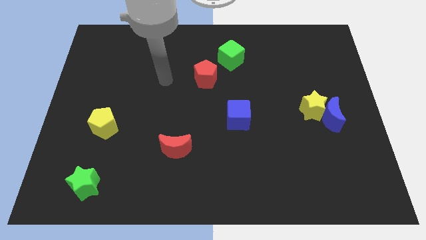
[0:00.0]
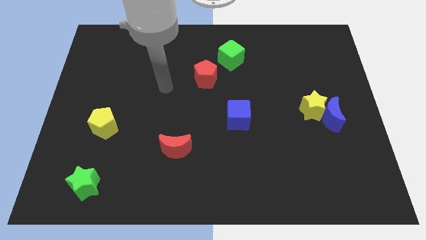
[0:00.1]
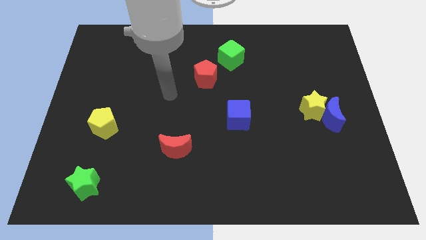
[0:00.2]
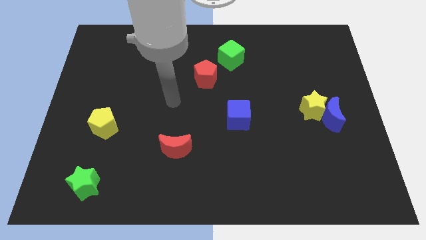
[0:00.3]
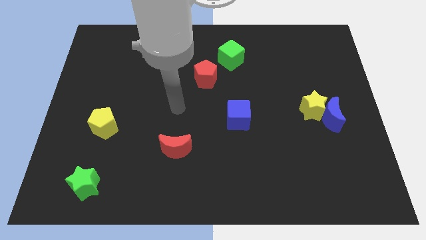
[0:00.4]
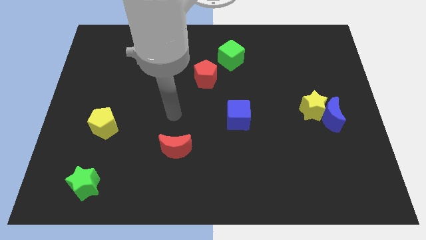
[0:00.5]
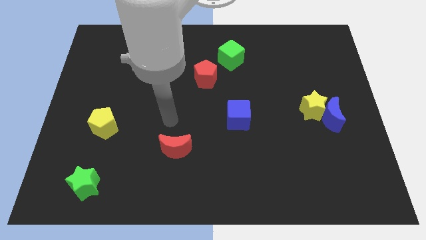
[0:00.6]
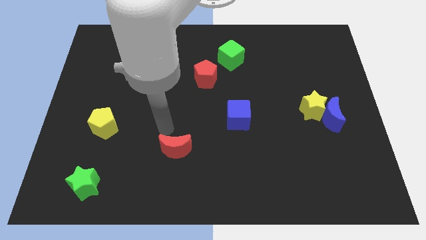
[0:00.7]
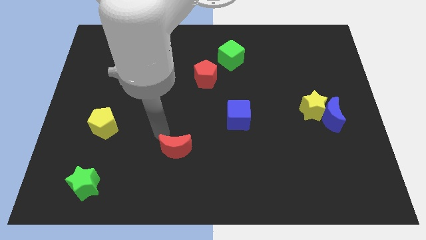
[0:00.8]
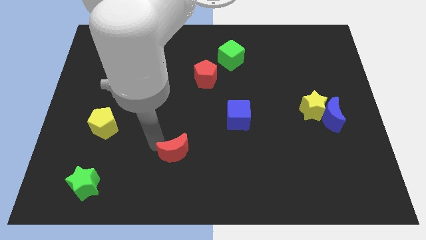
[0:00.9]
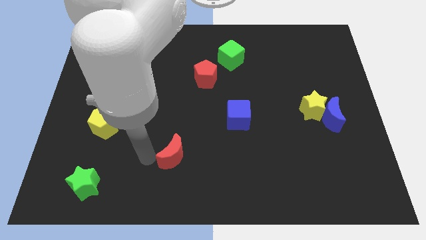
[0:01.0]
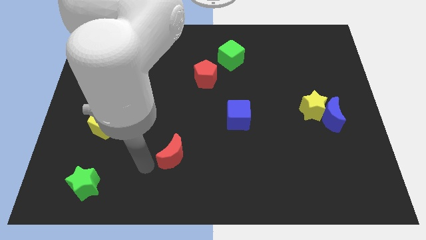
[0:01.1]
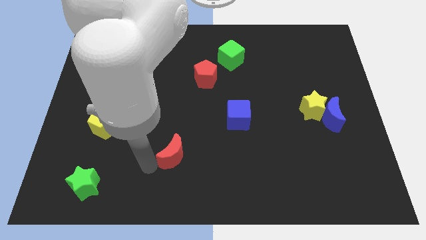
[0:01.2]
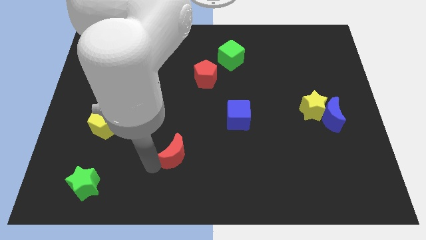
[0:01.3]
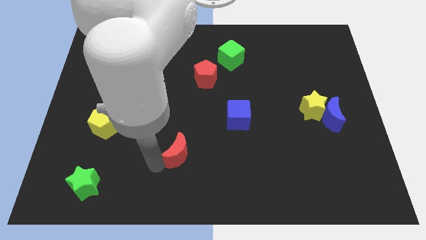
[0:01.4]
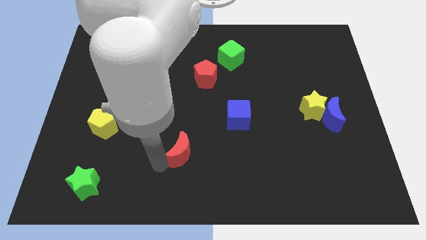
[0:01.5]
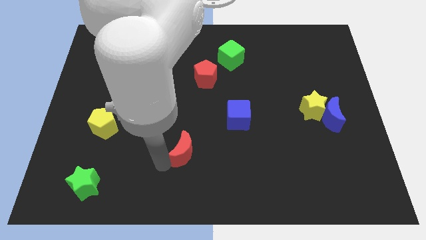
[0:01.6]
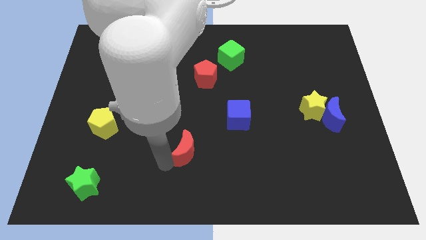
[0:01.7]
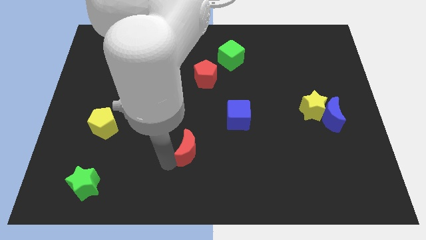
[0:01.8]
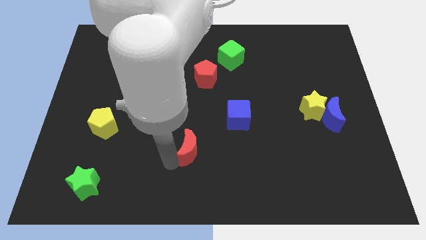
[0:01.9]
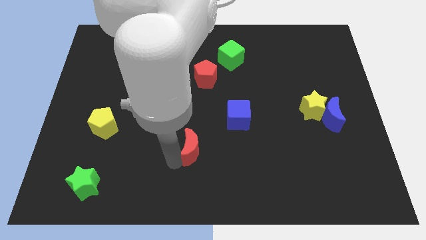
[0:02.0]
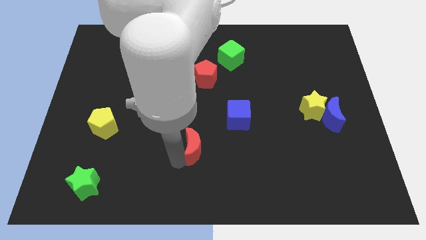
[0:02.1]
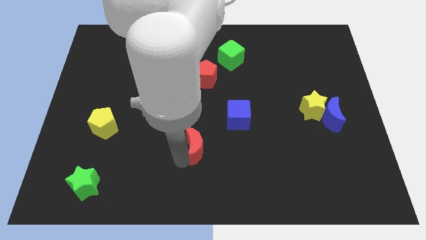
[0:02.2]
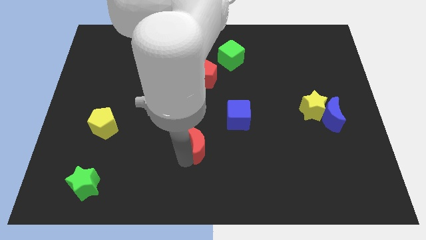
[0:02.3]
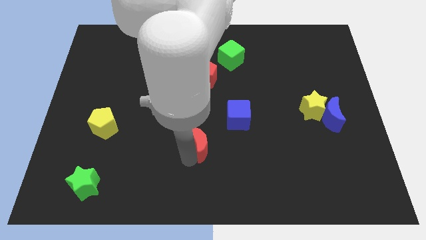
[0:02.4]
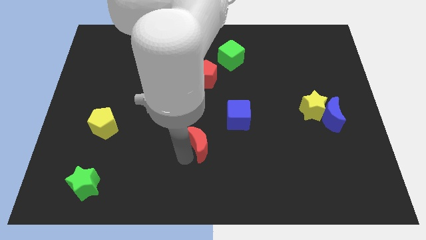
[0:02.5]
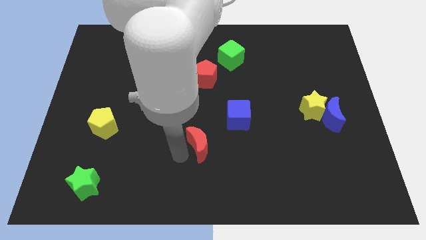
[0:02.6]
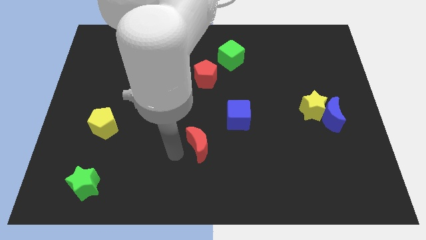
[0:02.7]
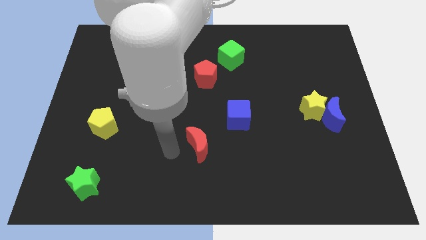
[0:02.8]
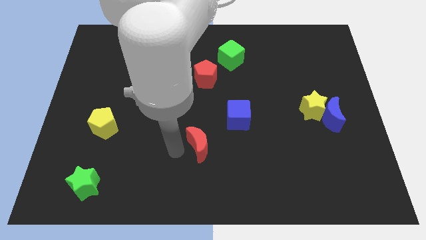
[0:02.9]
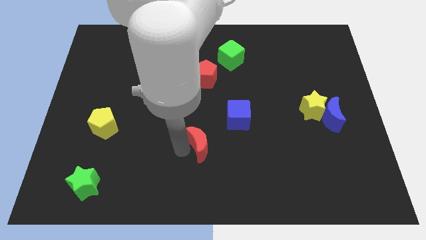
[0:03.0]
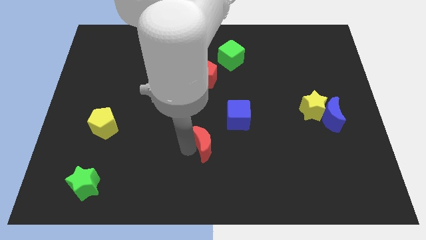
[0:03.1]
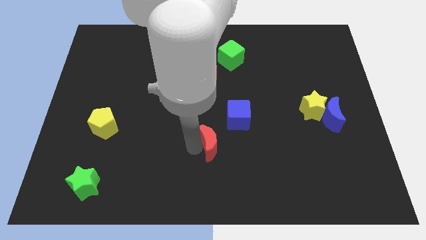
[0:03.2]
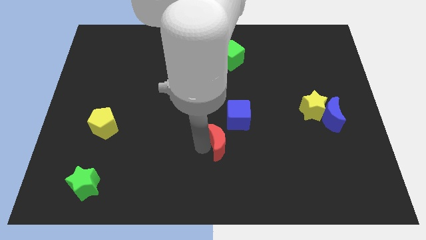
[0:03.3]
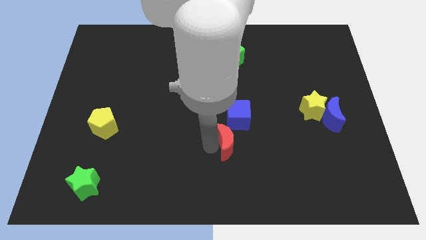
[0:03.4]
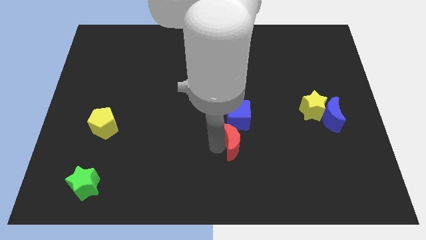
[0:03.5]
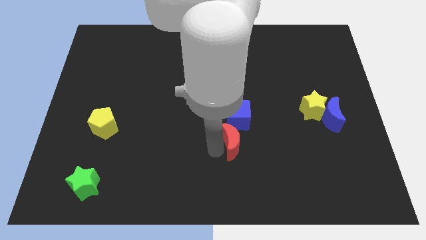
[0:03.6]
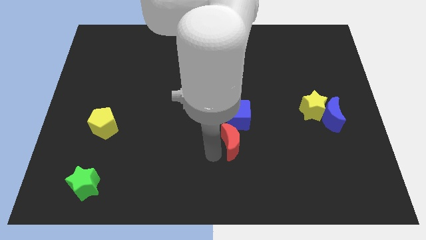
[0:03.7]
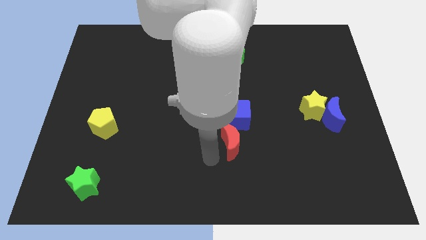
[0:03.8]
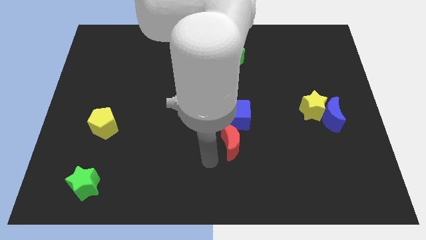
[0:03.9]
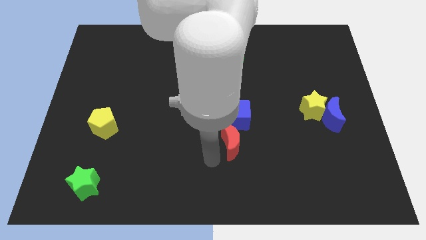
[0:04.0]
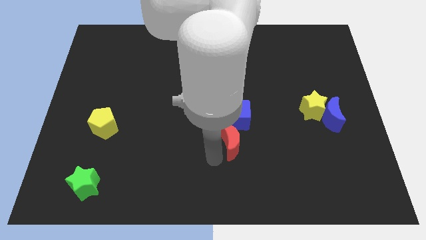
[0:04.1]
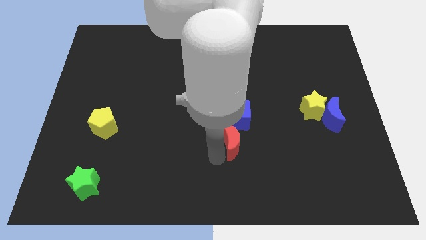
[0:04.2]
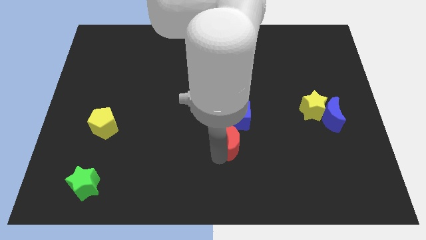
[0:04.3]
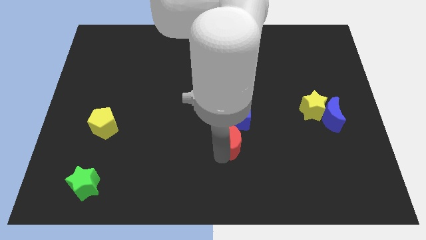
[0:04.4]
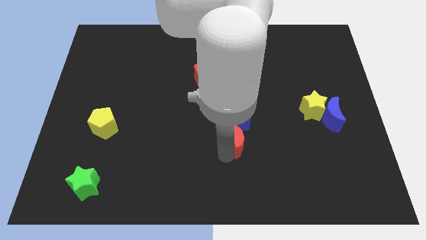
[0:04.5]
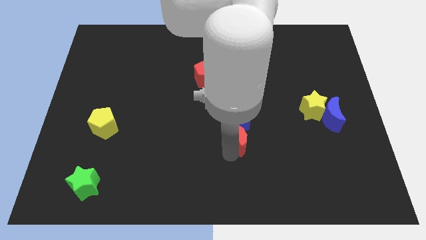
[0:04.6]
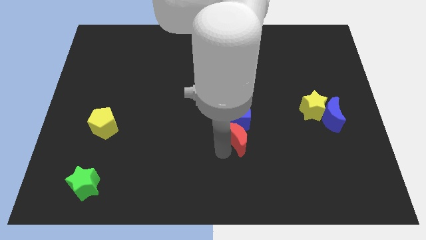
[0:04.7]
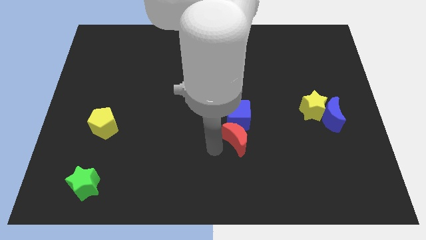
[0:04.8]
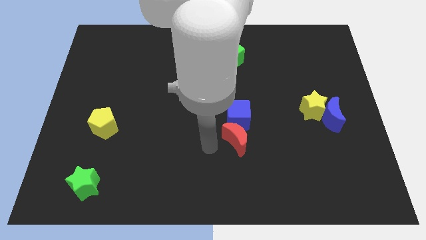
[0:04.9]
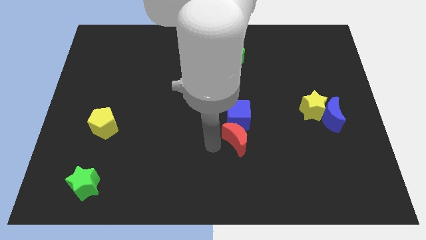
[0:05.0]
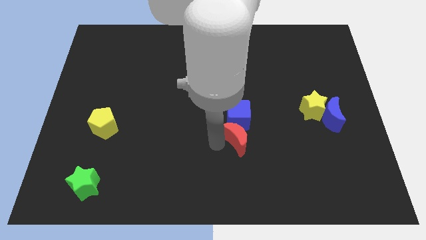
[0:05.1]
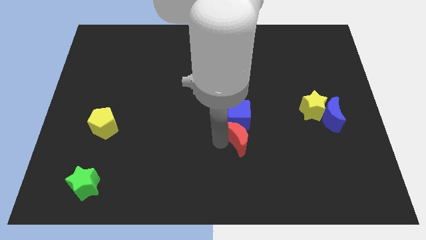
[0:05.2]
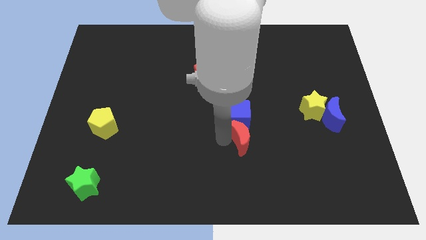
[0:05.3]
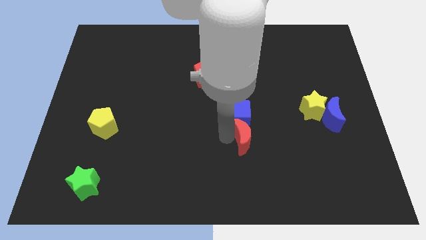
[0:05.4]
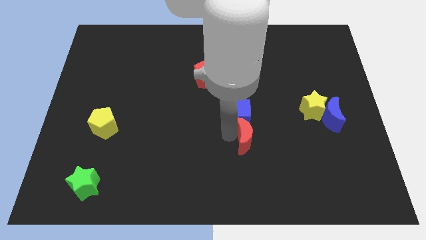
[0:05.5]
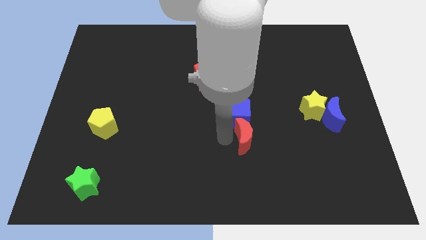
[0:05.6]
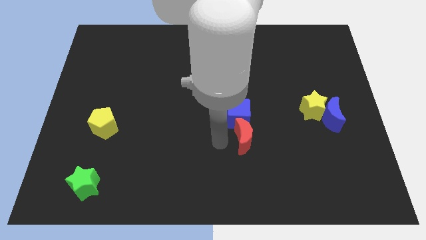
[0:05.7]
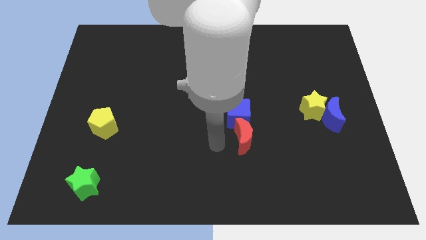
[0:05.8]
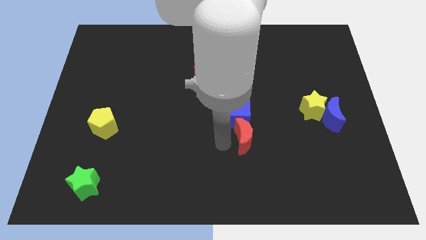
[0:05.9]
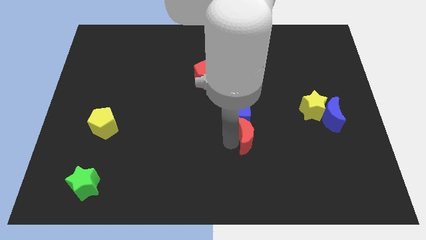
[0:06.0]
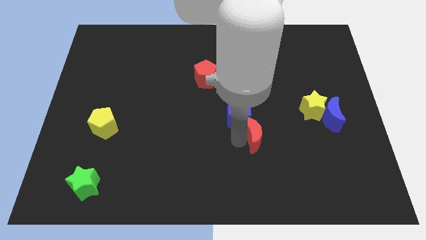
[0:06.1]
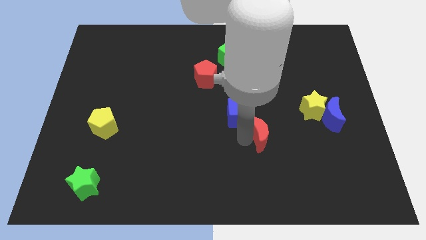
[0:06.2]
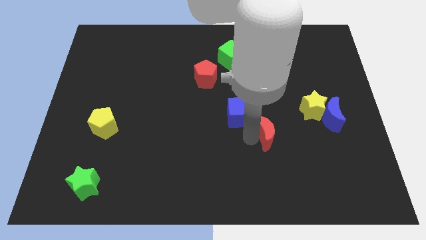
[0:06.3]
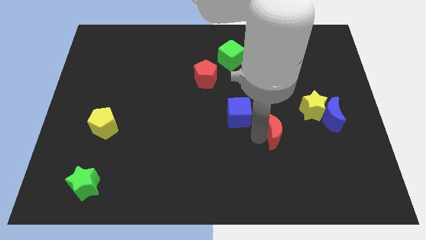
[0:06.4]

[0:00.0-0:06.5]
push the red moon diagonally down and to the left of the yellow star

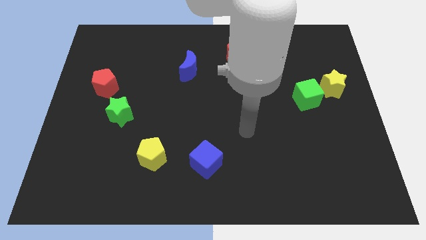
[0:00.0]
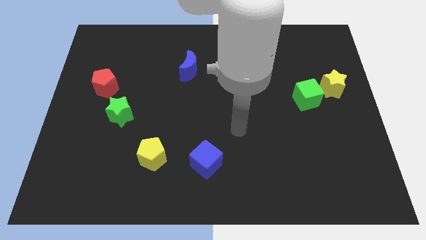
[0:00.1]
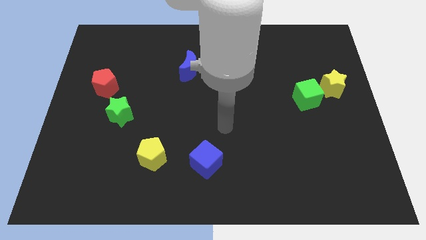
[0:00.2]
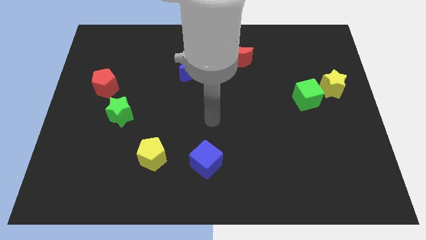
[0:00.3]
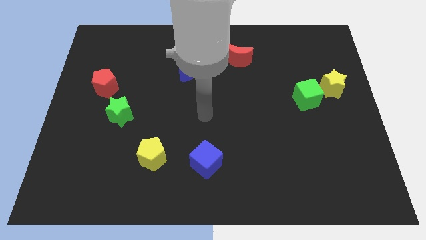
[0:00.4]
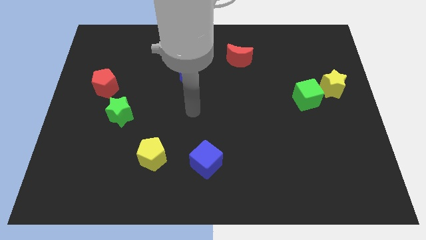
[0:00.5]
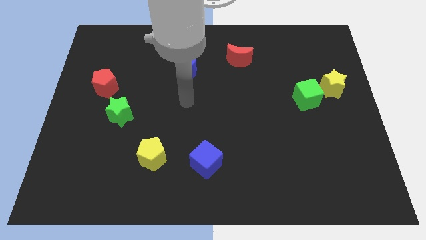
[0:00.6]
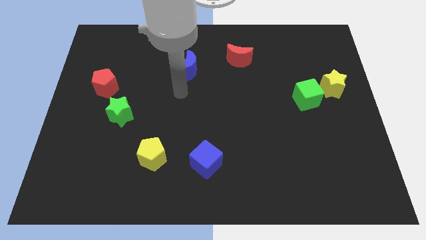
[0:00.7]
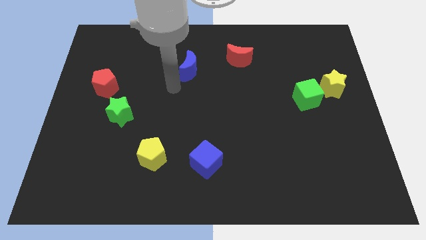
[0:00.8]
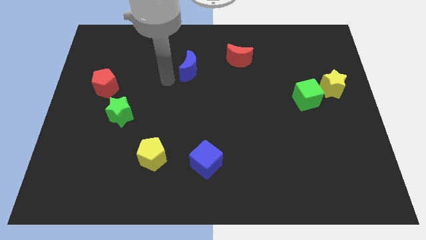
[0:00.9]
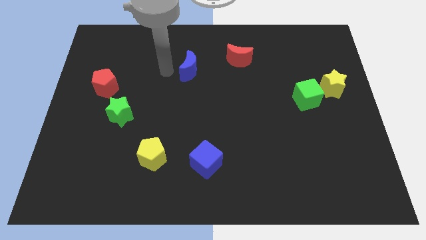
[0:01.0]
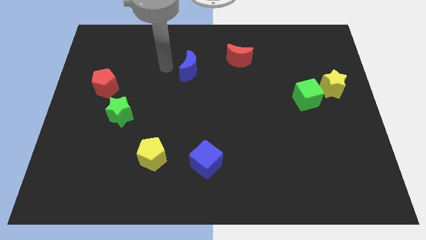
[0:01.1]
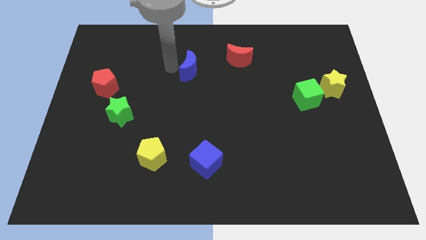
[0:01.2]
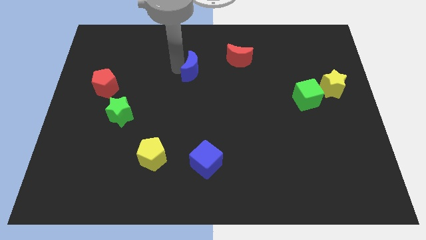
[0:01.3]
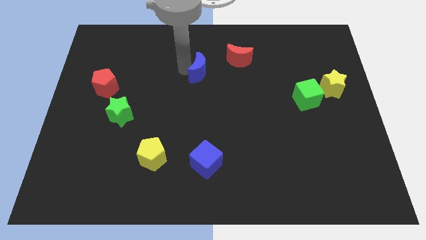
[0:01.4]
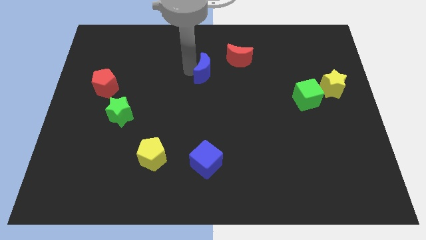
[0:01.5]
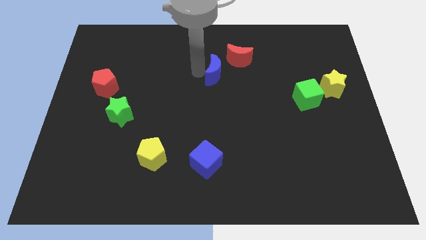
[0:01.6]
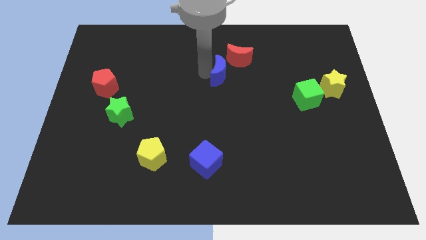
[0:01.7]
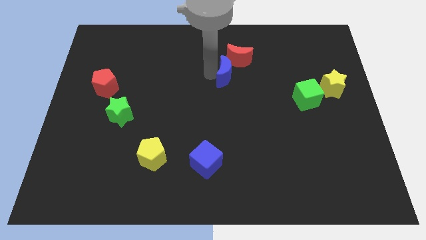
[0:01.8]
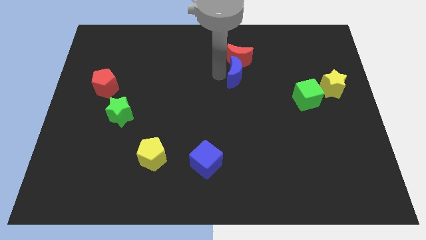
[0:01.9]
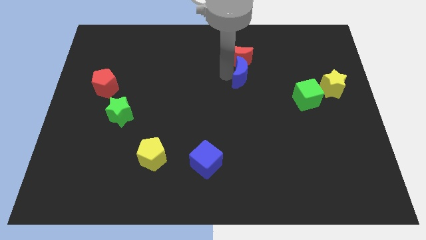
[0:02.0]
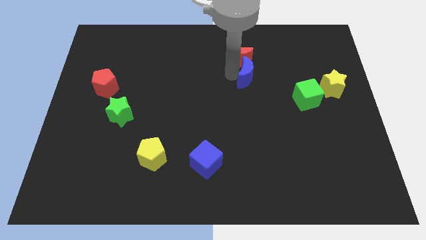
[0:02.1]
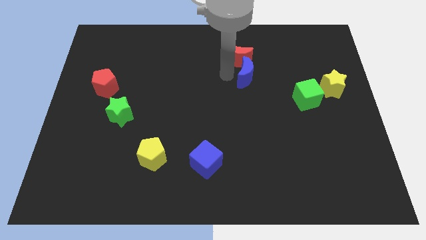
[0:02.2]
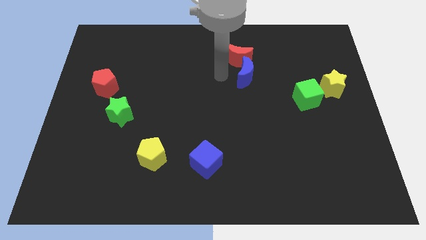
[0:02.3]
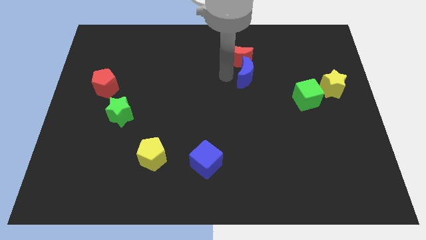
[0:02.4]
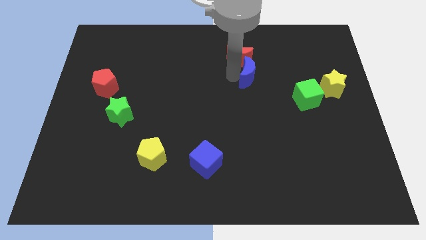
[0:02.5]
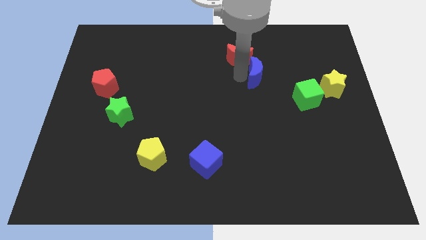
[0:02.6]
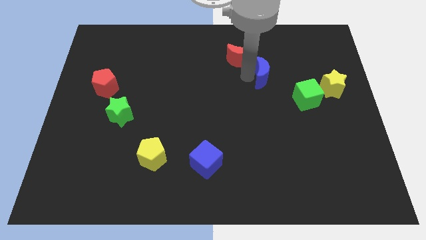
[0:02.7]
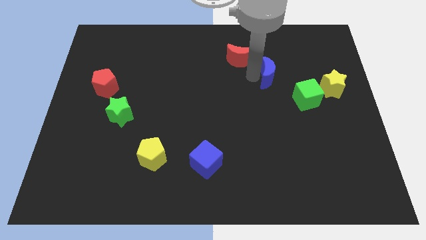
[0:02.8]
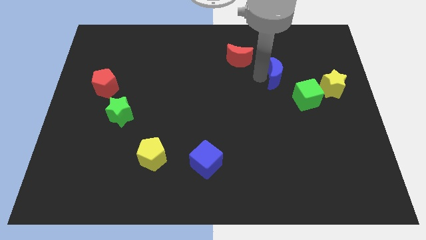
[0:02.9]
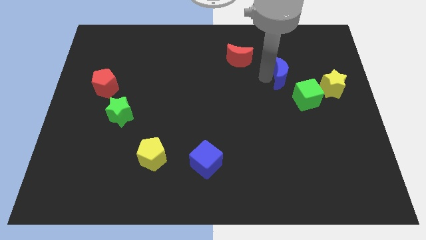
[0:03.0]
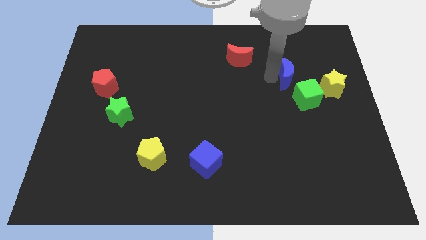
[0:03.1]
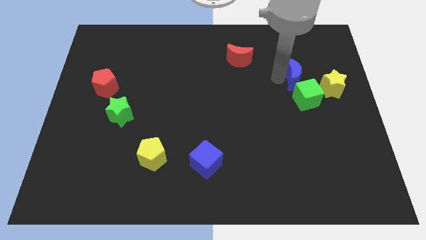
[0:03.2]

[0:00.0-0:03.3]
push the blue moon to the top left of the yellow star
